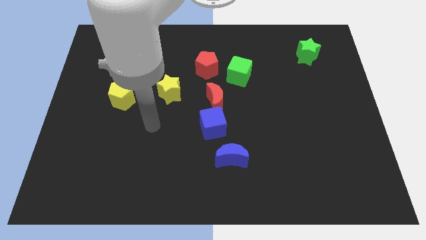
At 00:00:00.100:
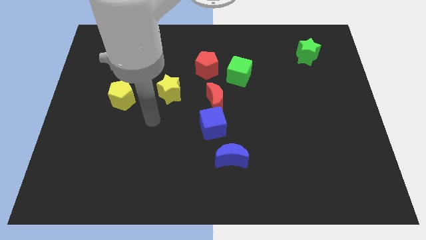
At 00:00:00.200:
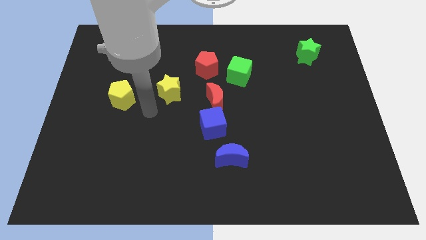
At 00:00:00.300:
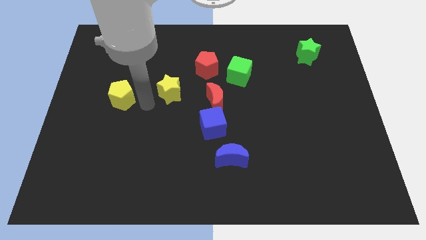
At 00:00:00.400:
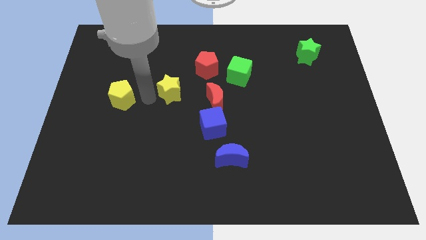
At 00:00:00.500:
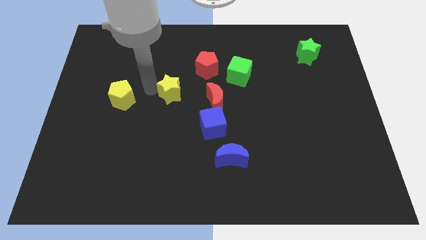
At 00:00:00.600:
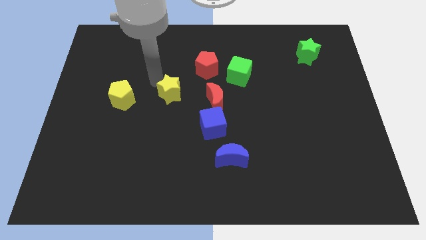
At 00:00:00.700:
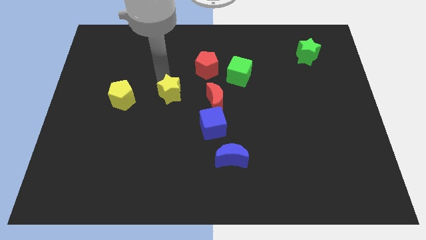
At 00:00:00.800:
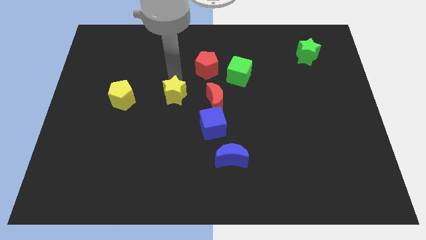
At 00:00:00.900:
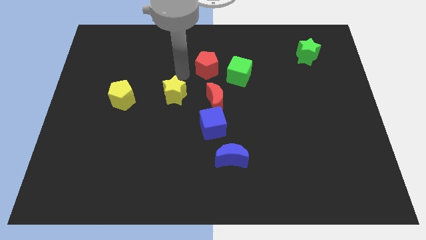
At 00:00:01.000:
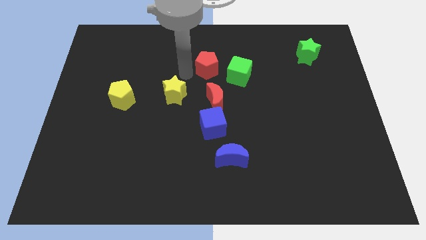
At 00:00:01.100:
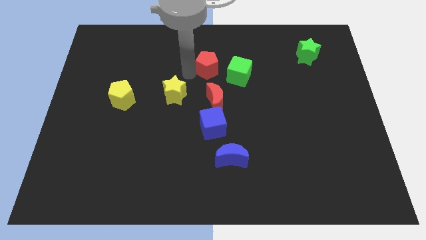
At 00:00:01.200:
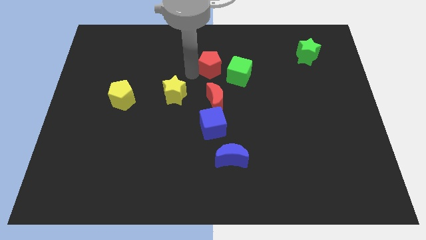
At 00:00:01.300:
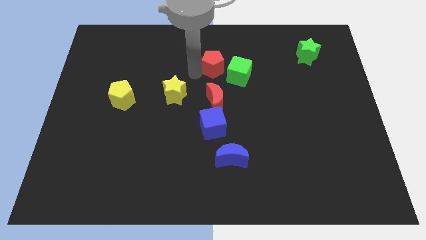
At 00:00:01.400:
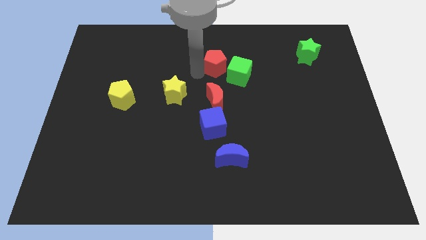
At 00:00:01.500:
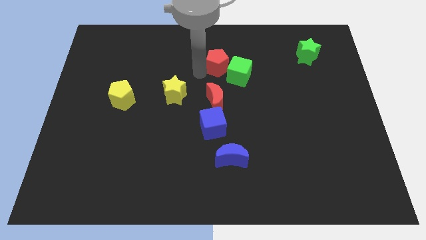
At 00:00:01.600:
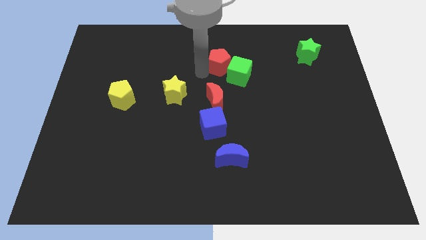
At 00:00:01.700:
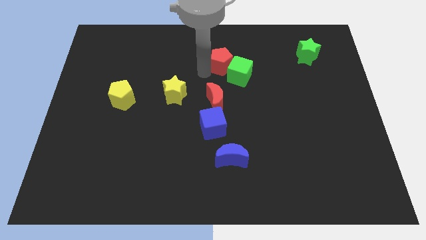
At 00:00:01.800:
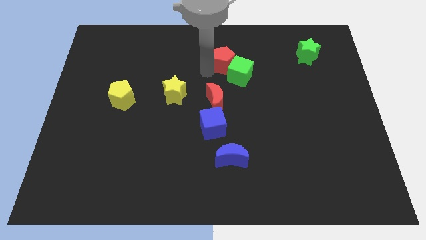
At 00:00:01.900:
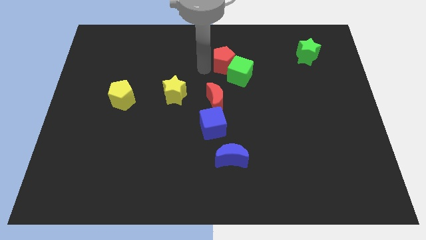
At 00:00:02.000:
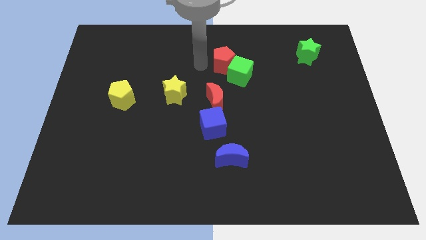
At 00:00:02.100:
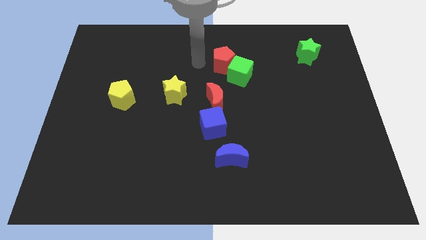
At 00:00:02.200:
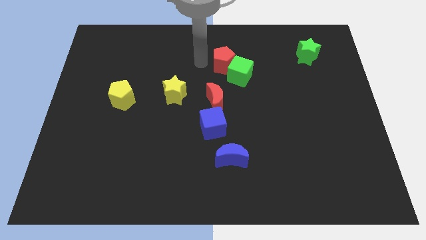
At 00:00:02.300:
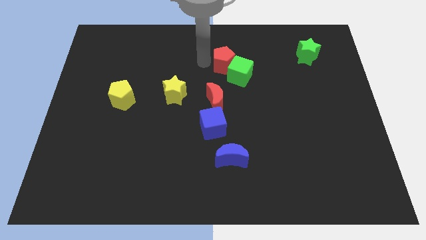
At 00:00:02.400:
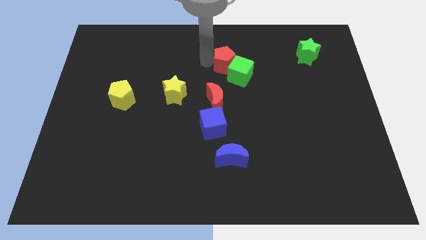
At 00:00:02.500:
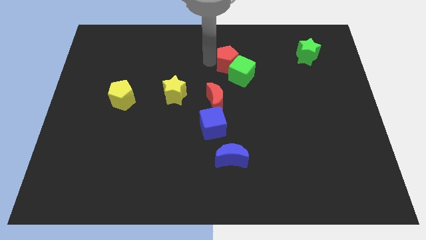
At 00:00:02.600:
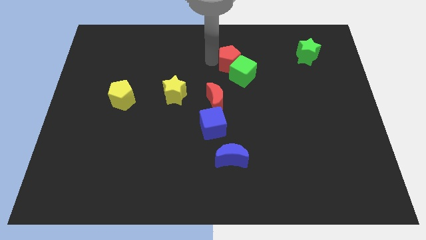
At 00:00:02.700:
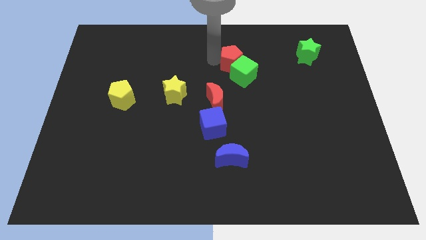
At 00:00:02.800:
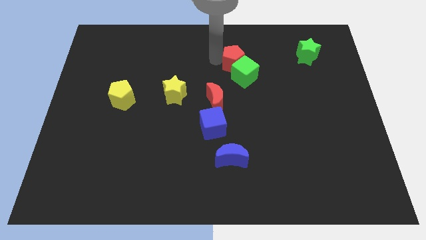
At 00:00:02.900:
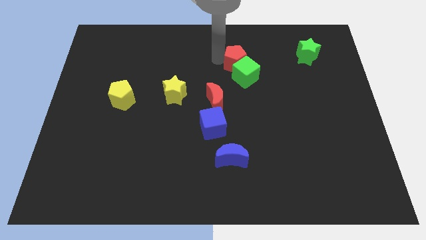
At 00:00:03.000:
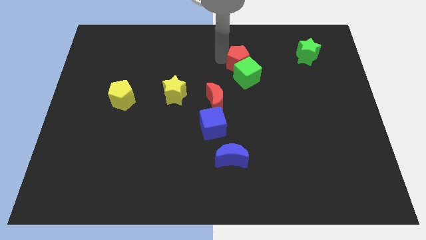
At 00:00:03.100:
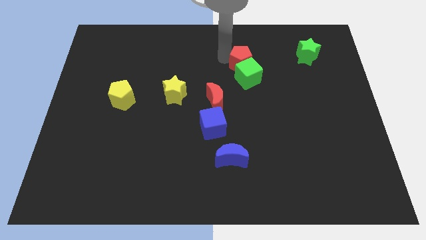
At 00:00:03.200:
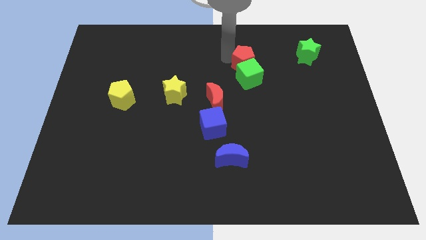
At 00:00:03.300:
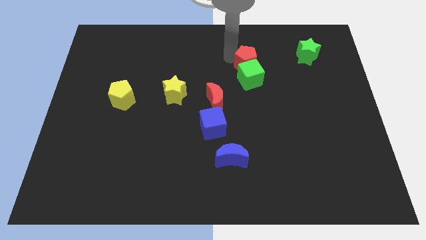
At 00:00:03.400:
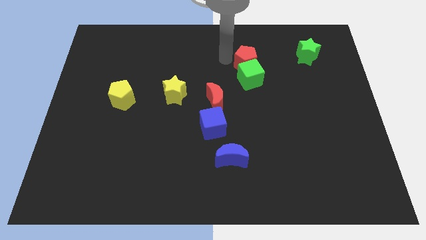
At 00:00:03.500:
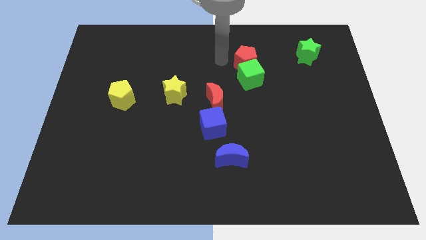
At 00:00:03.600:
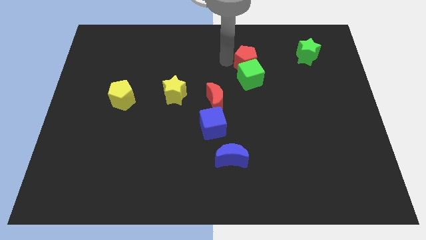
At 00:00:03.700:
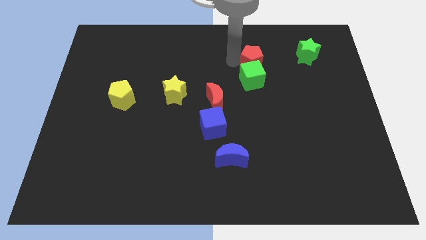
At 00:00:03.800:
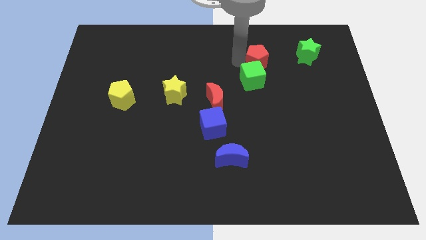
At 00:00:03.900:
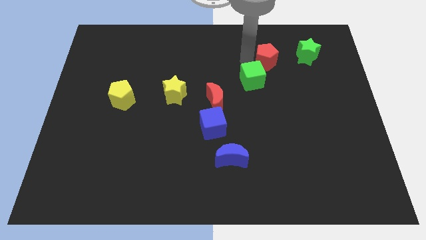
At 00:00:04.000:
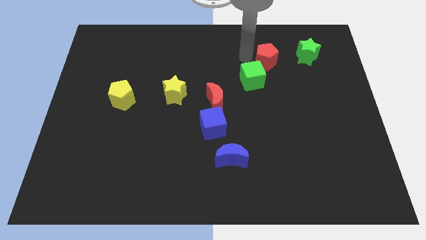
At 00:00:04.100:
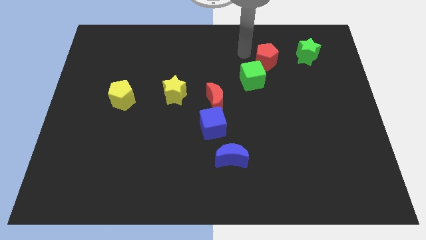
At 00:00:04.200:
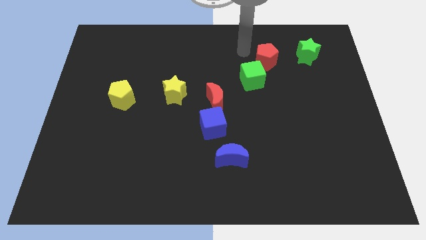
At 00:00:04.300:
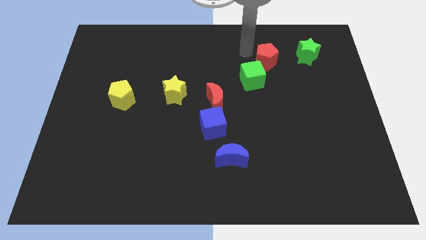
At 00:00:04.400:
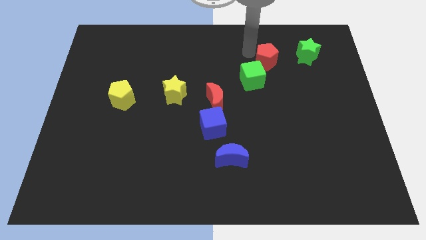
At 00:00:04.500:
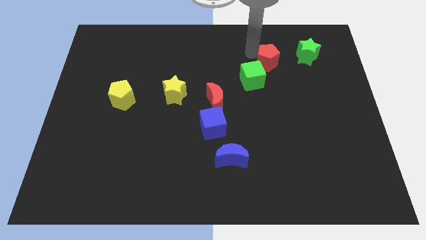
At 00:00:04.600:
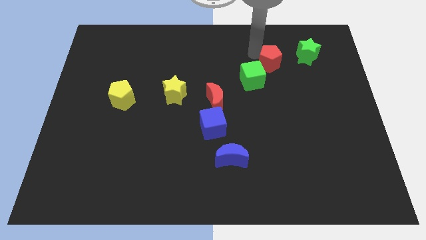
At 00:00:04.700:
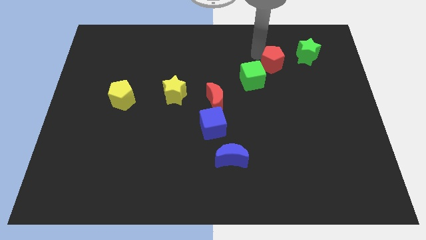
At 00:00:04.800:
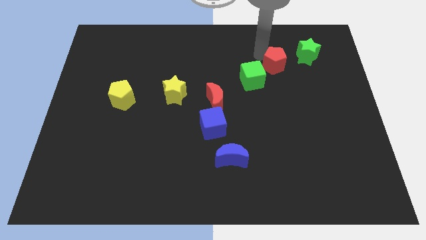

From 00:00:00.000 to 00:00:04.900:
slide the red pentagon diagonally down and to the left of the green star

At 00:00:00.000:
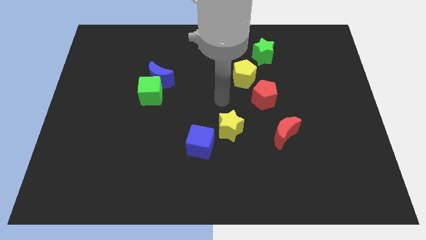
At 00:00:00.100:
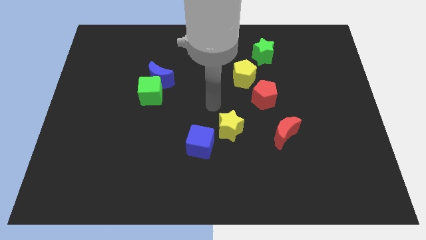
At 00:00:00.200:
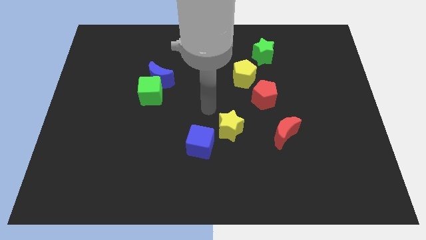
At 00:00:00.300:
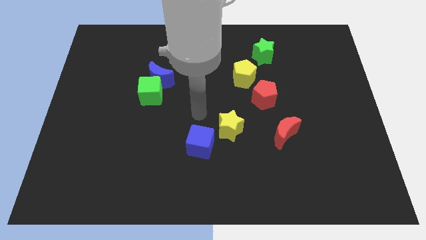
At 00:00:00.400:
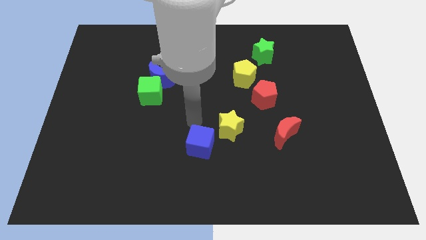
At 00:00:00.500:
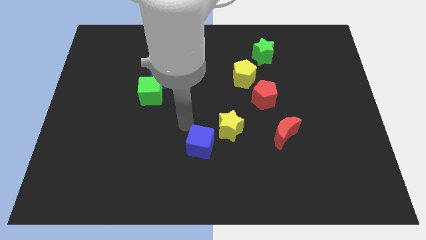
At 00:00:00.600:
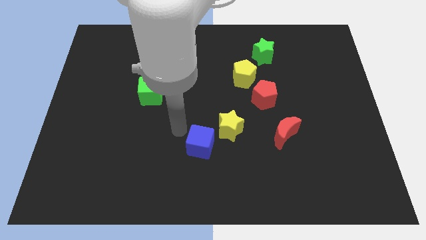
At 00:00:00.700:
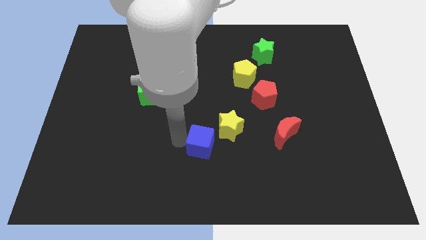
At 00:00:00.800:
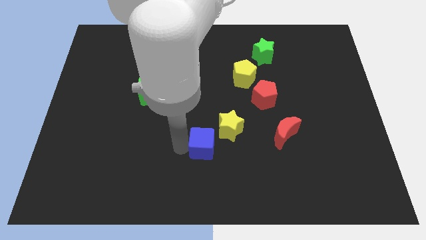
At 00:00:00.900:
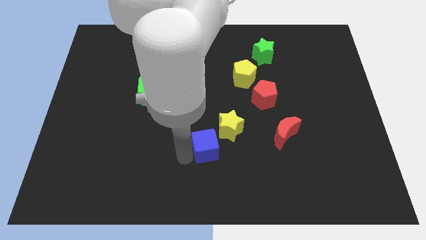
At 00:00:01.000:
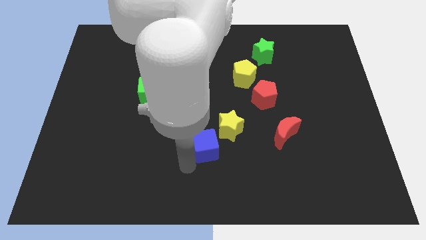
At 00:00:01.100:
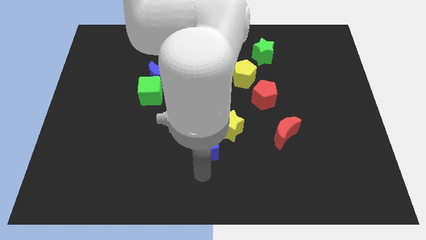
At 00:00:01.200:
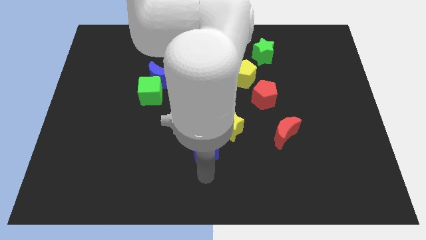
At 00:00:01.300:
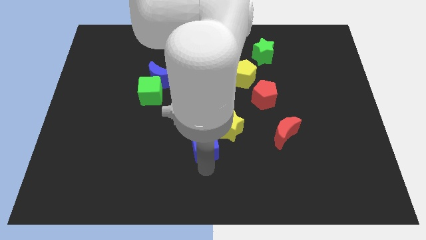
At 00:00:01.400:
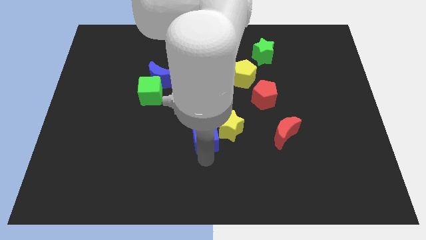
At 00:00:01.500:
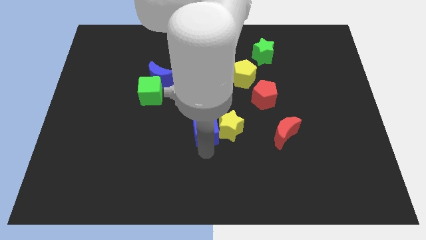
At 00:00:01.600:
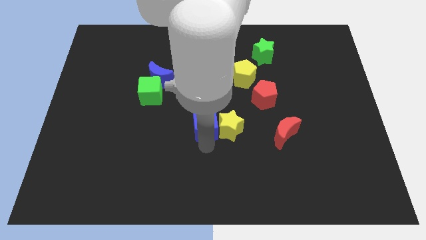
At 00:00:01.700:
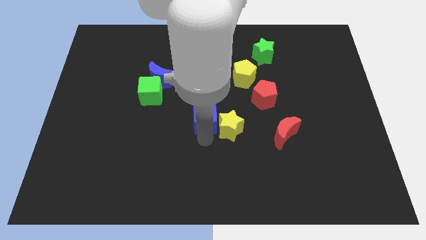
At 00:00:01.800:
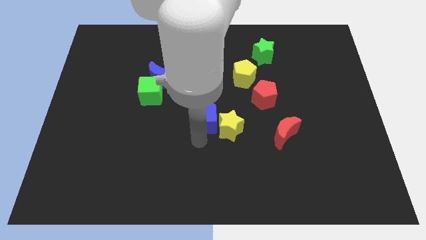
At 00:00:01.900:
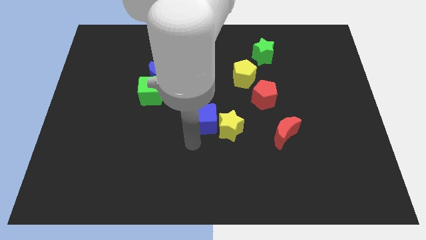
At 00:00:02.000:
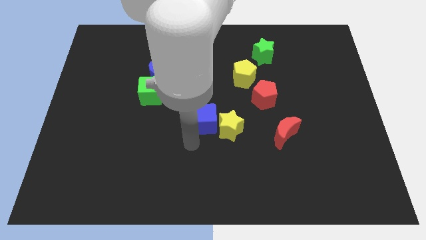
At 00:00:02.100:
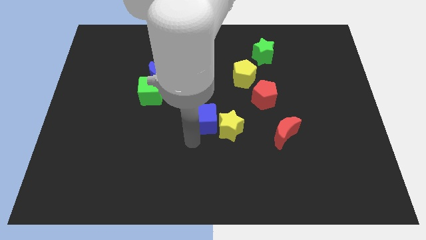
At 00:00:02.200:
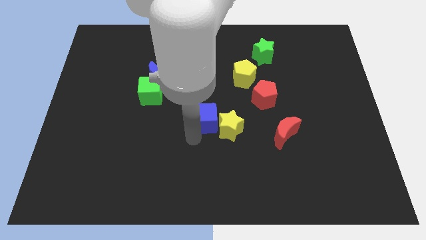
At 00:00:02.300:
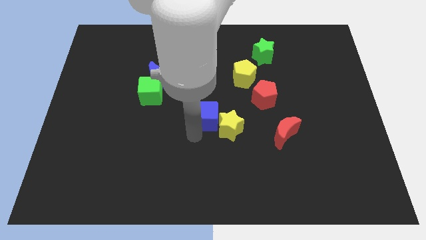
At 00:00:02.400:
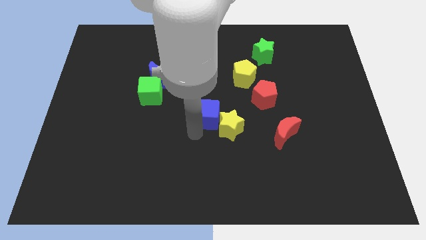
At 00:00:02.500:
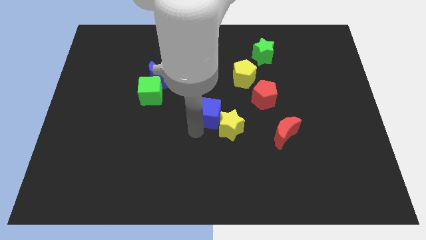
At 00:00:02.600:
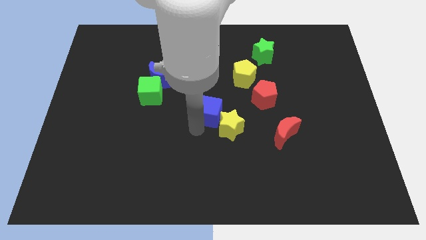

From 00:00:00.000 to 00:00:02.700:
slide the blue cube to the top of the yellow star
